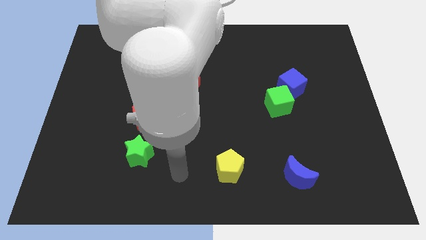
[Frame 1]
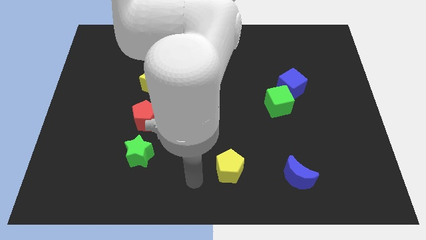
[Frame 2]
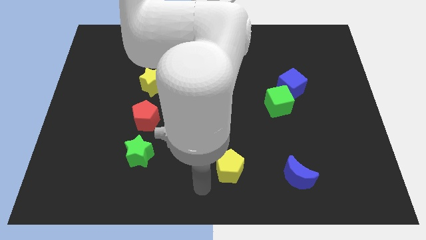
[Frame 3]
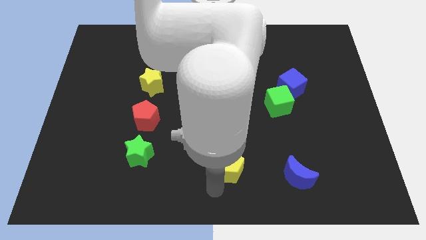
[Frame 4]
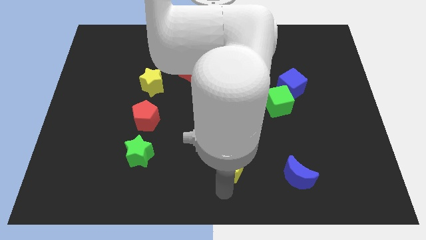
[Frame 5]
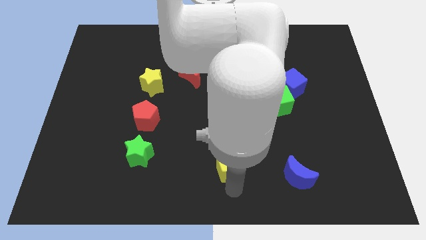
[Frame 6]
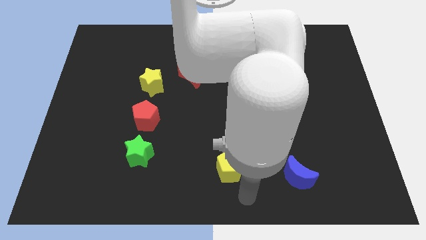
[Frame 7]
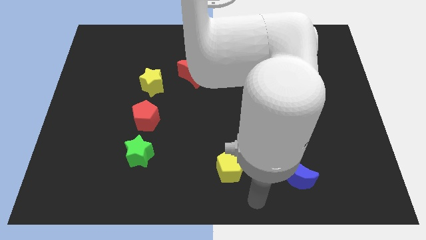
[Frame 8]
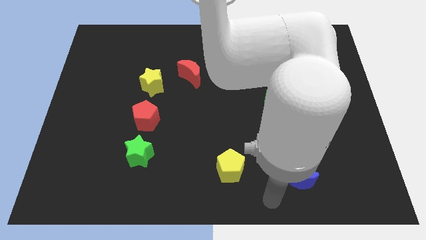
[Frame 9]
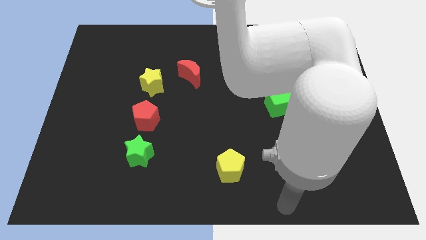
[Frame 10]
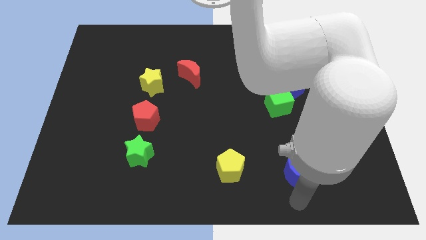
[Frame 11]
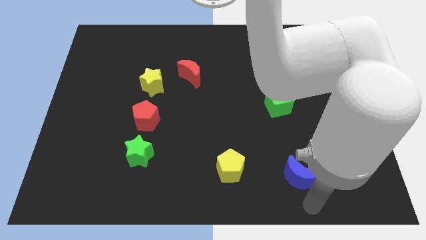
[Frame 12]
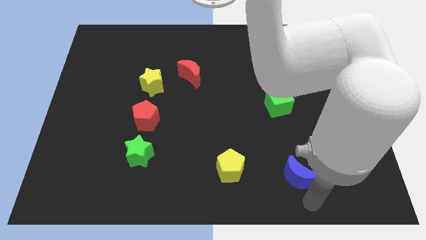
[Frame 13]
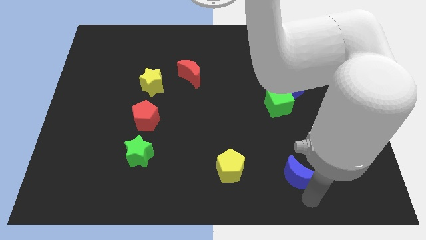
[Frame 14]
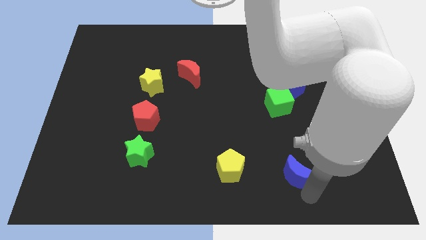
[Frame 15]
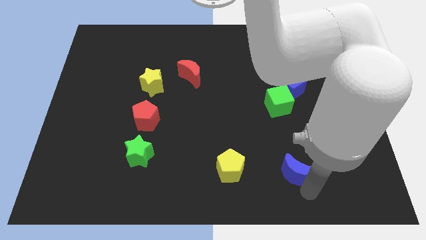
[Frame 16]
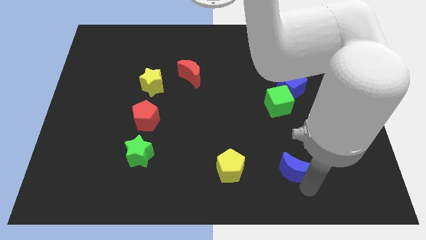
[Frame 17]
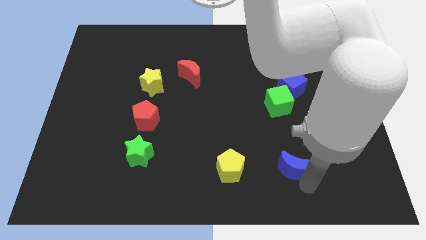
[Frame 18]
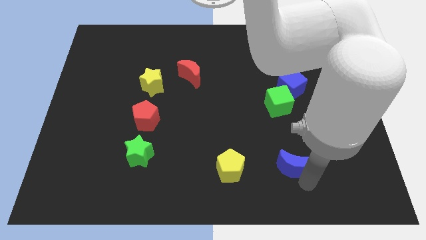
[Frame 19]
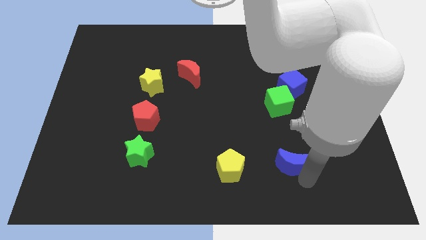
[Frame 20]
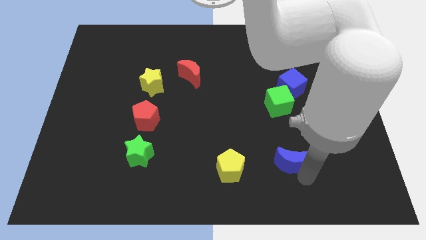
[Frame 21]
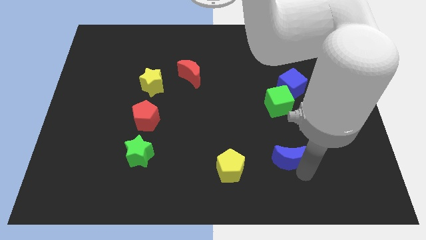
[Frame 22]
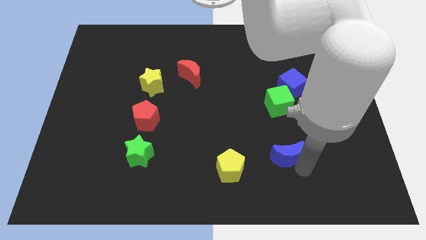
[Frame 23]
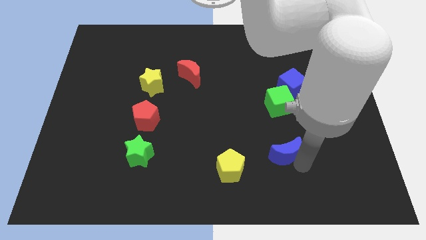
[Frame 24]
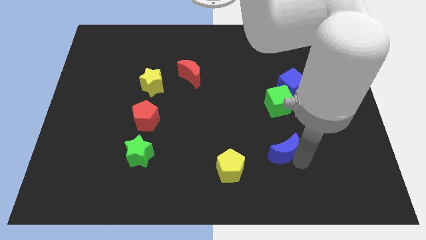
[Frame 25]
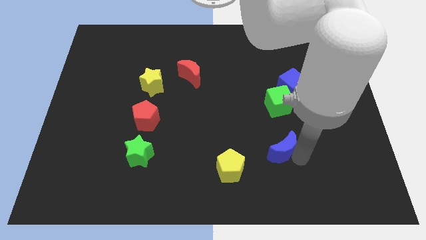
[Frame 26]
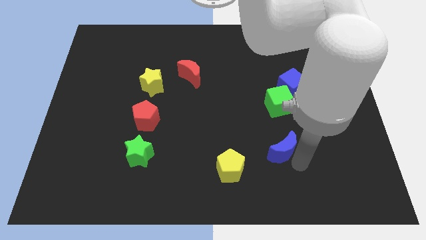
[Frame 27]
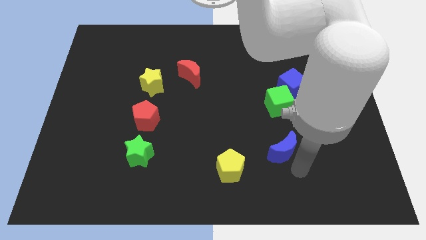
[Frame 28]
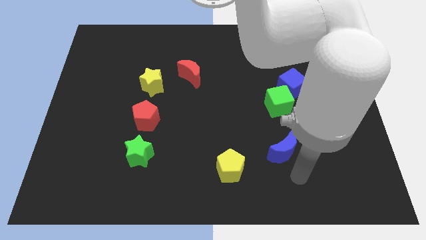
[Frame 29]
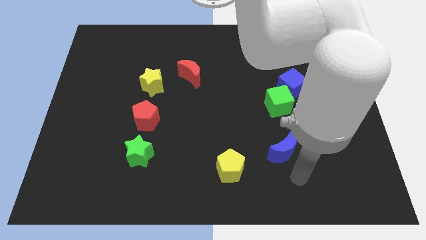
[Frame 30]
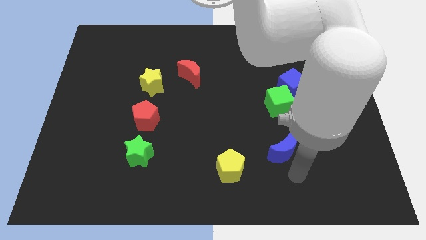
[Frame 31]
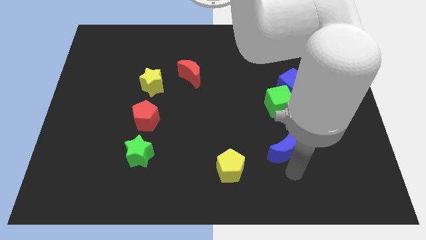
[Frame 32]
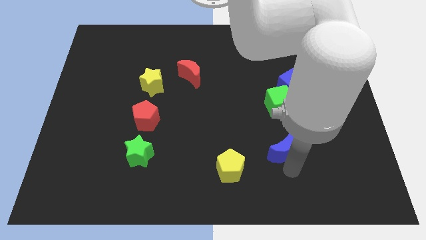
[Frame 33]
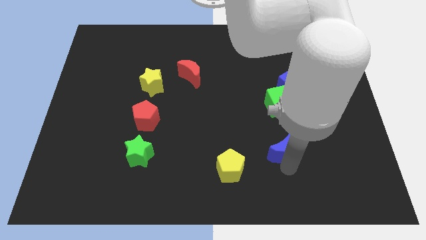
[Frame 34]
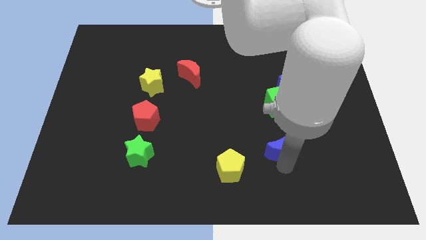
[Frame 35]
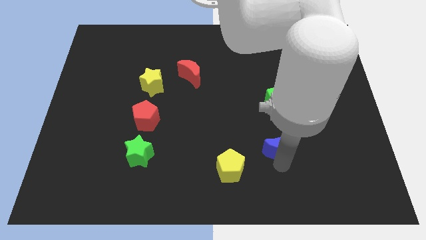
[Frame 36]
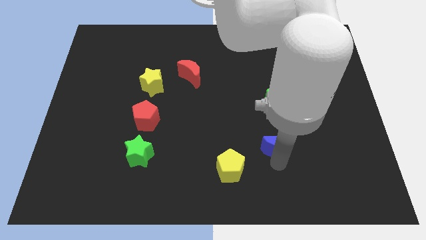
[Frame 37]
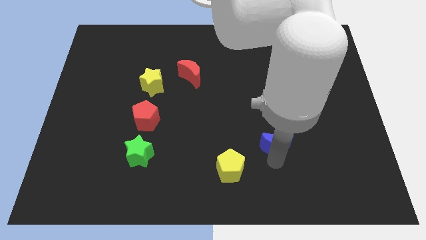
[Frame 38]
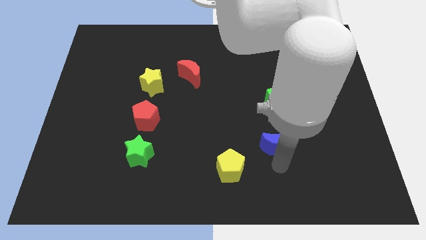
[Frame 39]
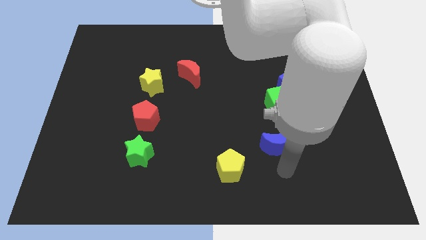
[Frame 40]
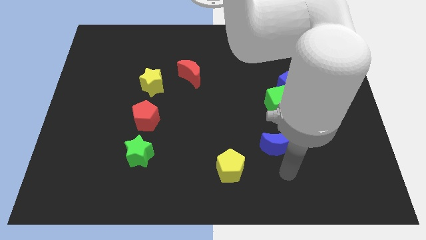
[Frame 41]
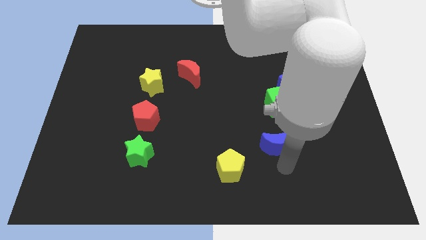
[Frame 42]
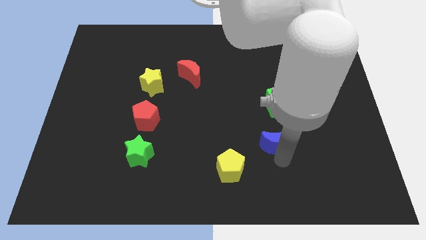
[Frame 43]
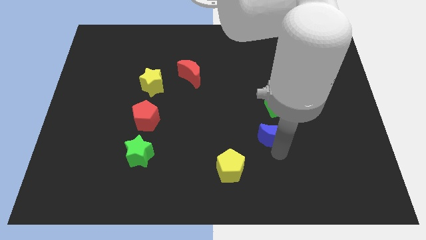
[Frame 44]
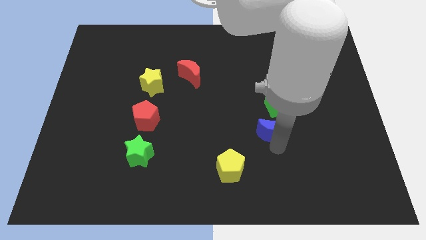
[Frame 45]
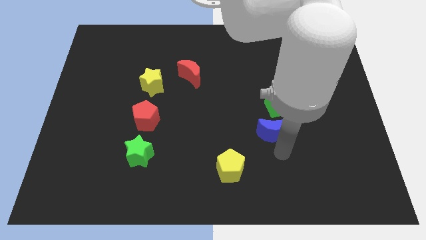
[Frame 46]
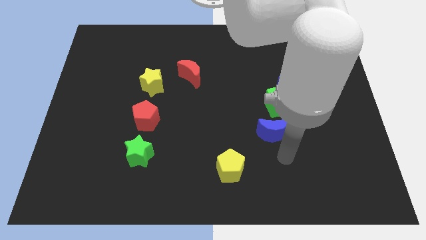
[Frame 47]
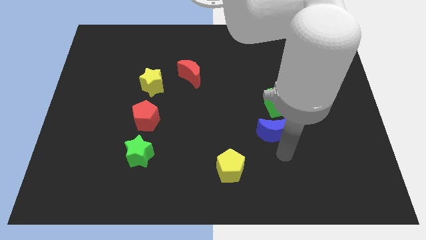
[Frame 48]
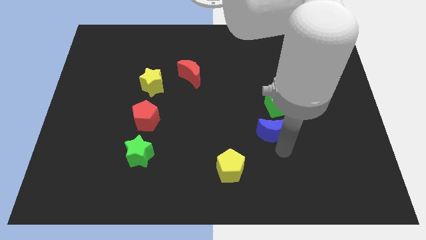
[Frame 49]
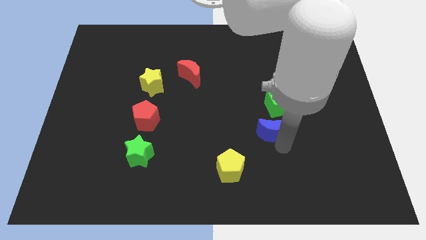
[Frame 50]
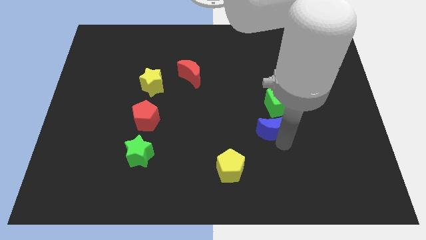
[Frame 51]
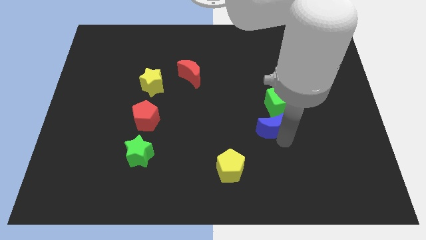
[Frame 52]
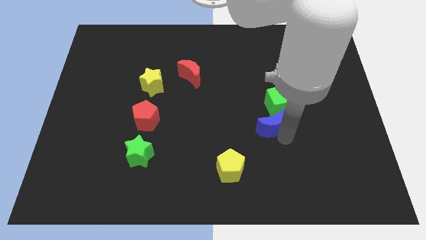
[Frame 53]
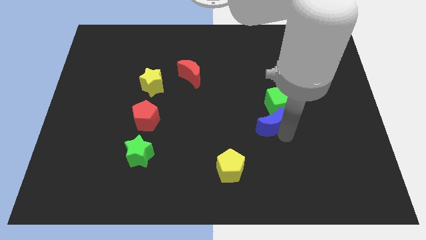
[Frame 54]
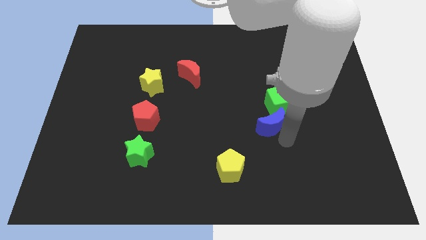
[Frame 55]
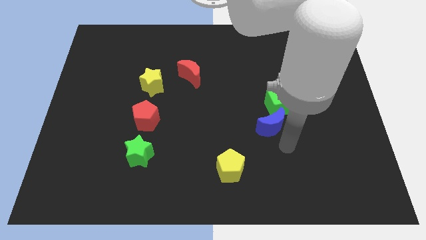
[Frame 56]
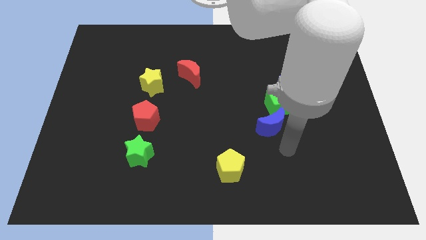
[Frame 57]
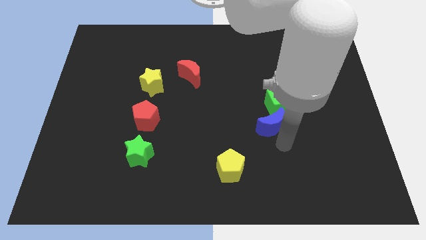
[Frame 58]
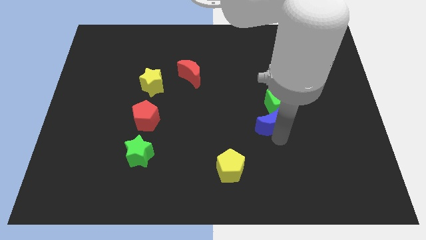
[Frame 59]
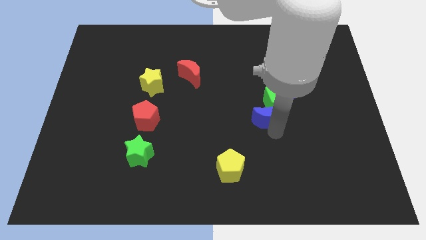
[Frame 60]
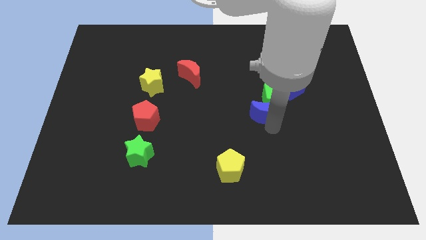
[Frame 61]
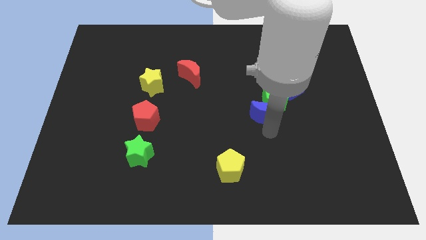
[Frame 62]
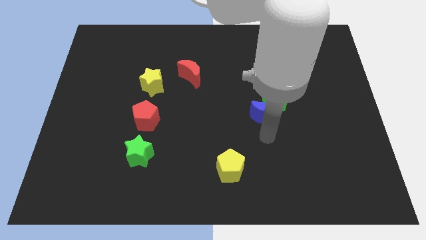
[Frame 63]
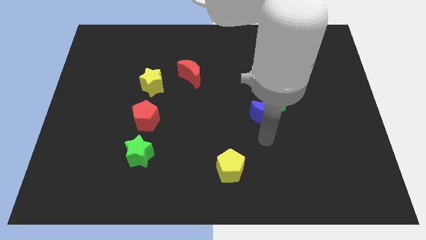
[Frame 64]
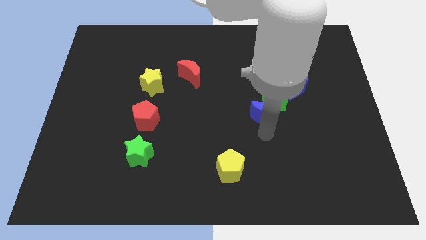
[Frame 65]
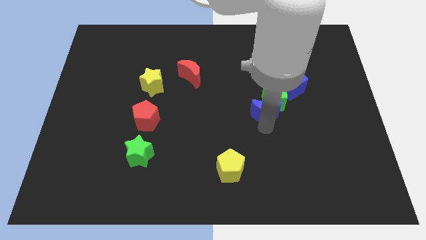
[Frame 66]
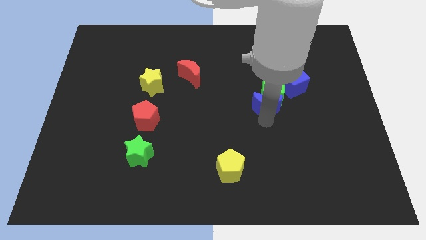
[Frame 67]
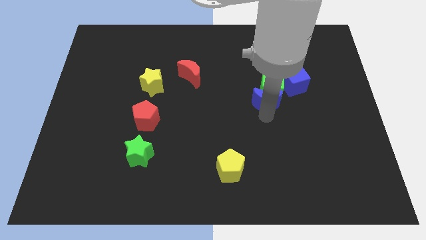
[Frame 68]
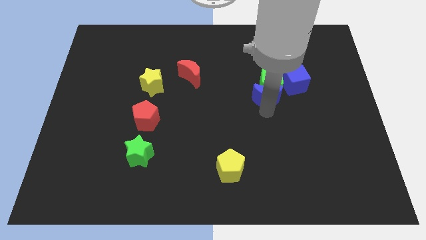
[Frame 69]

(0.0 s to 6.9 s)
push the blue moon up

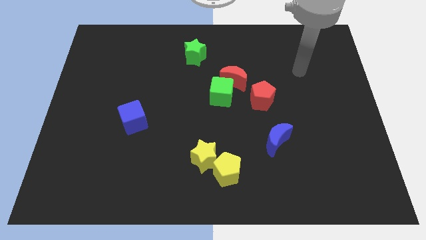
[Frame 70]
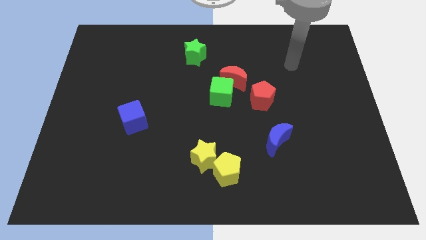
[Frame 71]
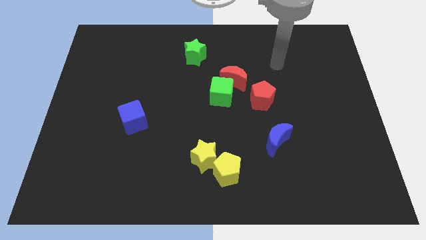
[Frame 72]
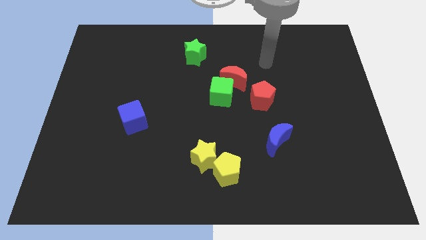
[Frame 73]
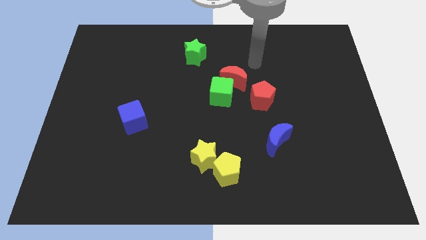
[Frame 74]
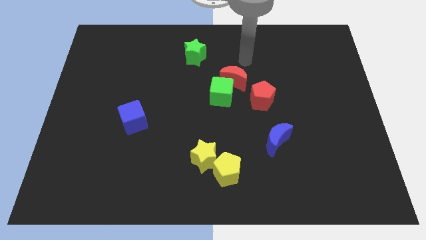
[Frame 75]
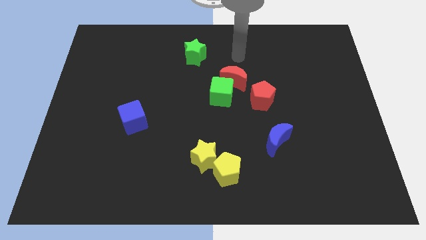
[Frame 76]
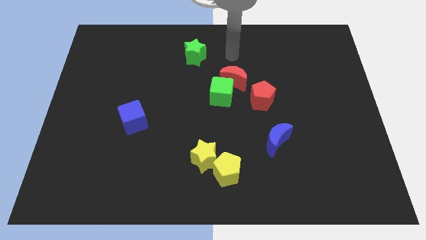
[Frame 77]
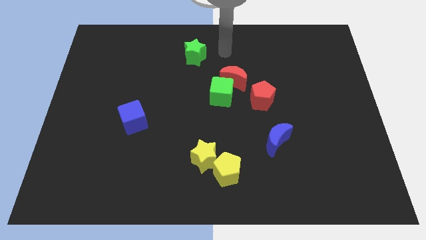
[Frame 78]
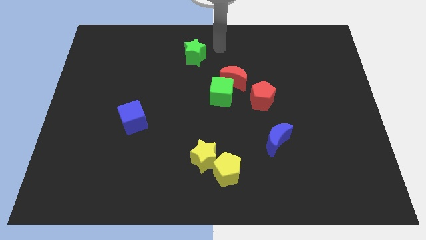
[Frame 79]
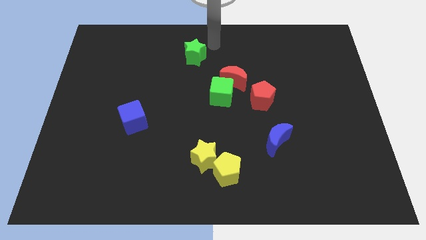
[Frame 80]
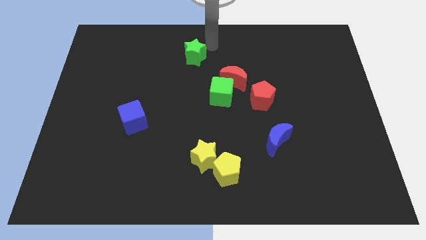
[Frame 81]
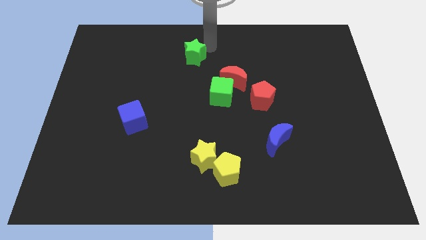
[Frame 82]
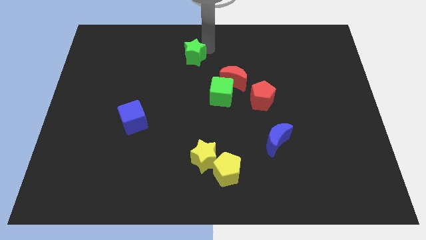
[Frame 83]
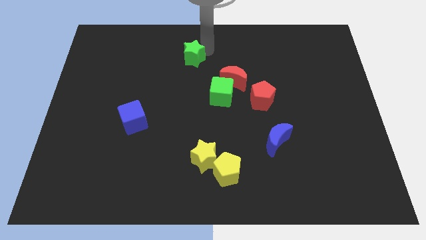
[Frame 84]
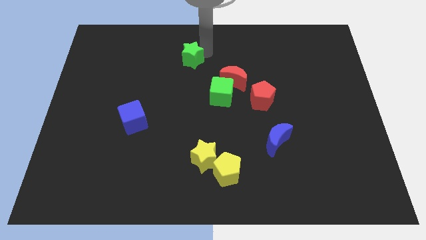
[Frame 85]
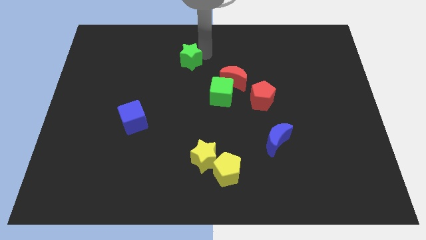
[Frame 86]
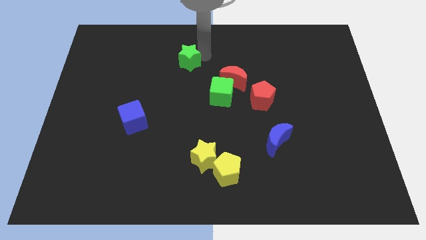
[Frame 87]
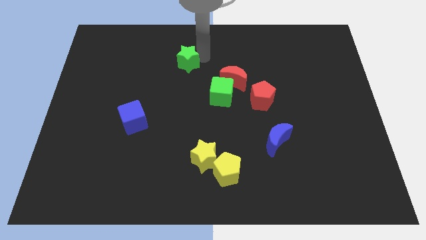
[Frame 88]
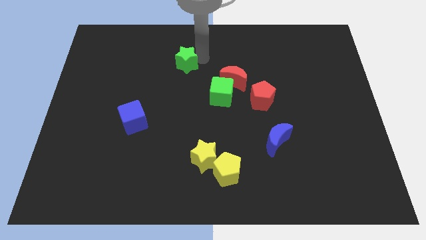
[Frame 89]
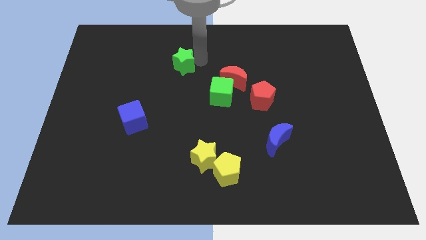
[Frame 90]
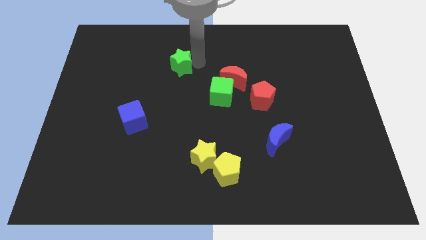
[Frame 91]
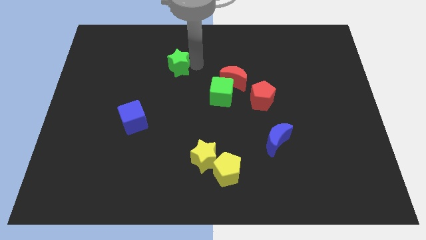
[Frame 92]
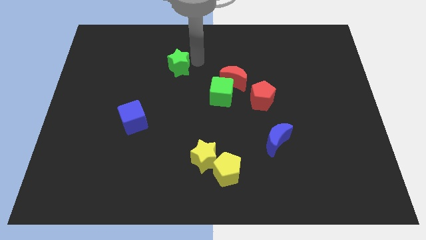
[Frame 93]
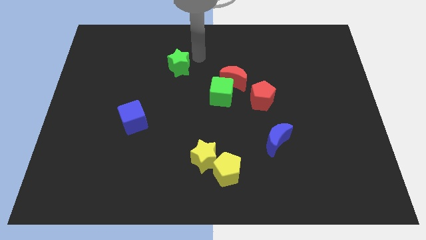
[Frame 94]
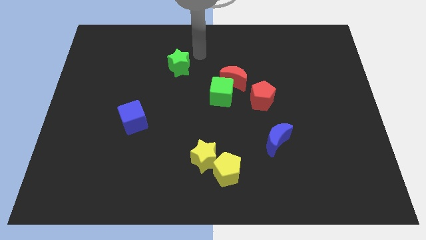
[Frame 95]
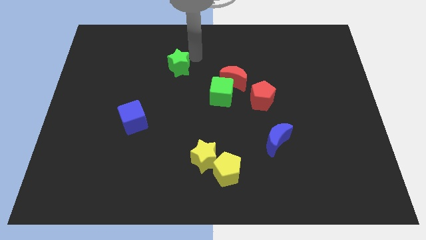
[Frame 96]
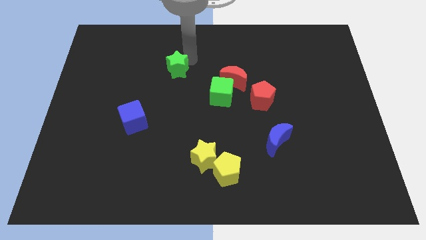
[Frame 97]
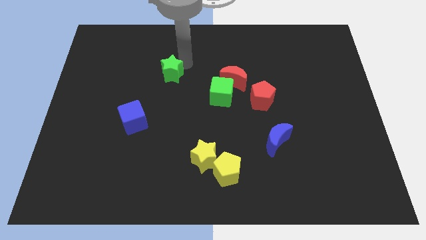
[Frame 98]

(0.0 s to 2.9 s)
slightly push the green star down and then left
